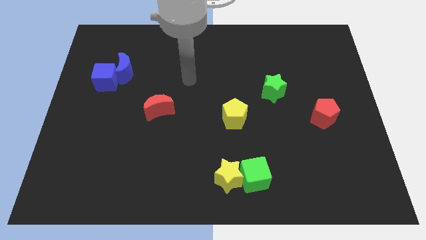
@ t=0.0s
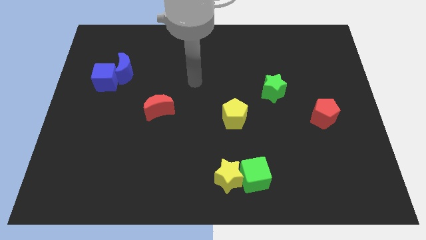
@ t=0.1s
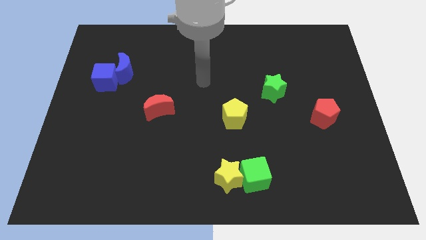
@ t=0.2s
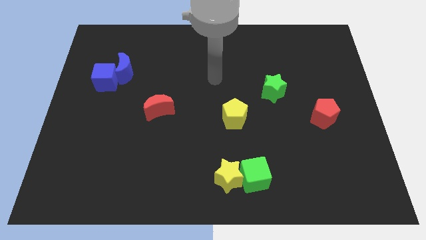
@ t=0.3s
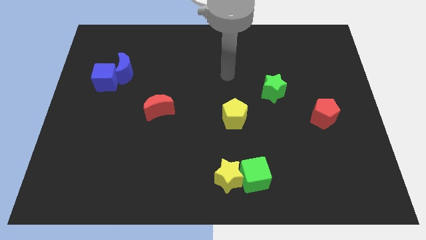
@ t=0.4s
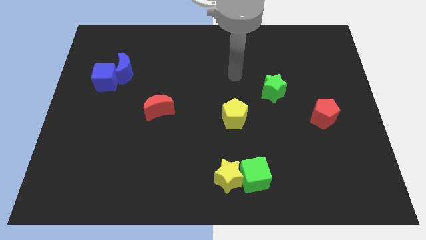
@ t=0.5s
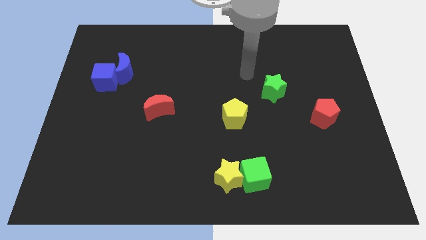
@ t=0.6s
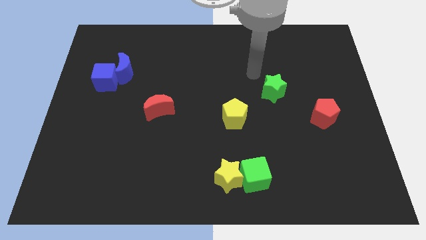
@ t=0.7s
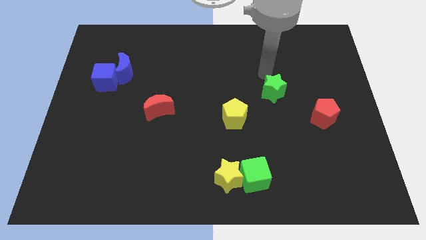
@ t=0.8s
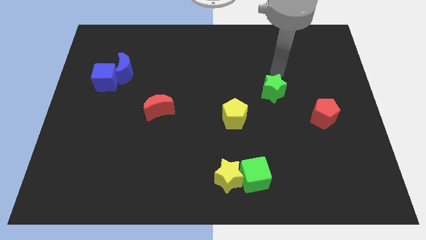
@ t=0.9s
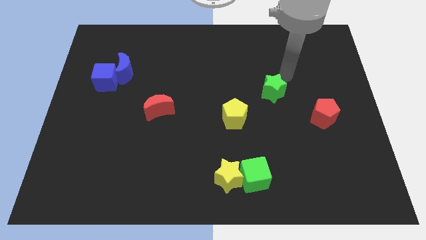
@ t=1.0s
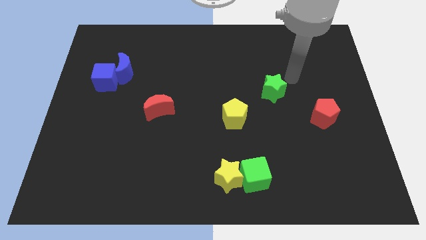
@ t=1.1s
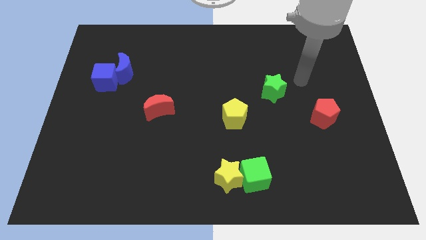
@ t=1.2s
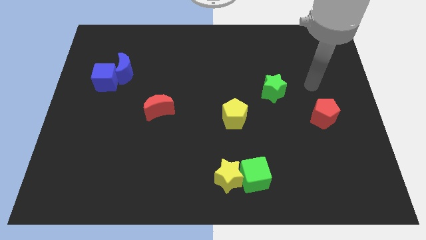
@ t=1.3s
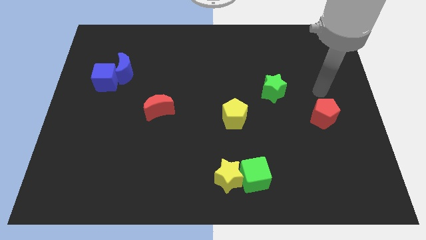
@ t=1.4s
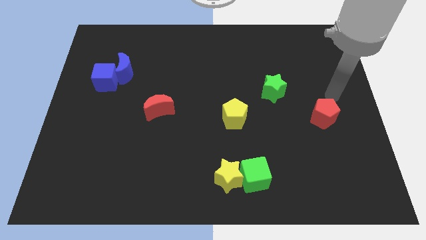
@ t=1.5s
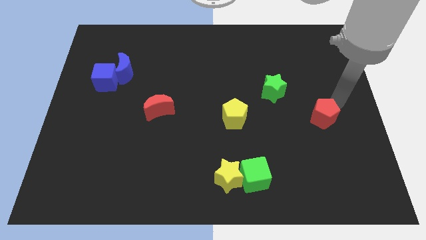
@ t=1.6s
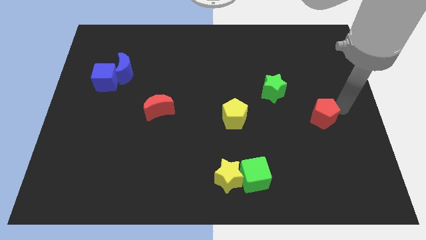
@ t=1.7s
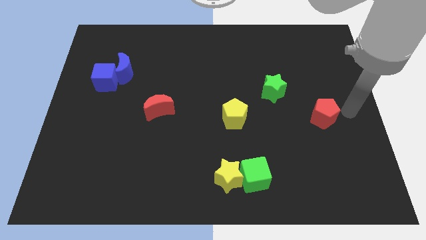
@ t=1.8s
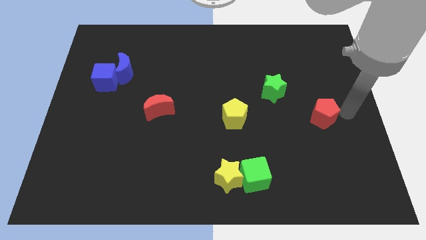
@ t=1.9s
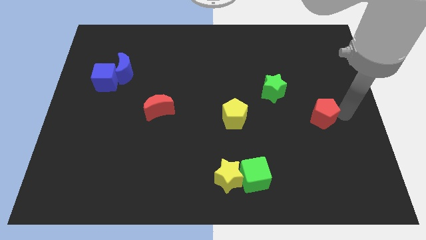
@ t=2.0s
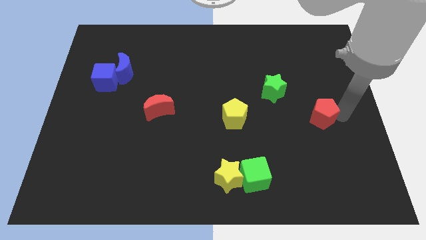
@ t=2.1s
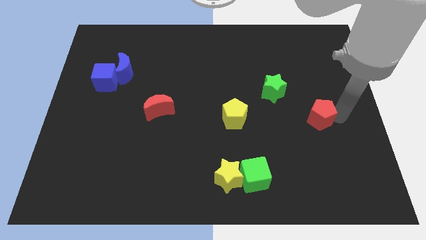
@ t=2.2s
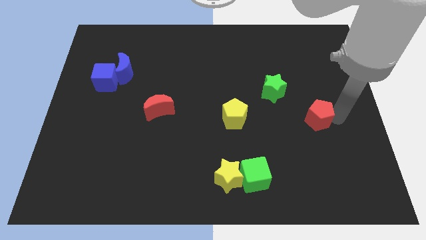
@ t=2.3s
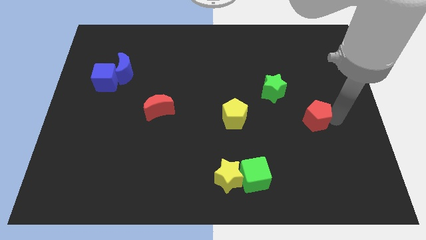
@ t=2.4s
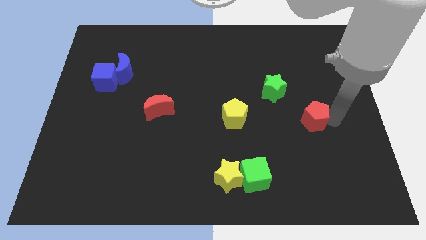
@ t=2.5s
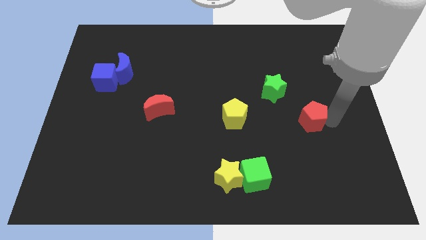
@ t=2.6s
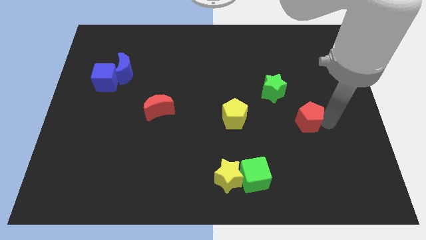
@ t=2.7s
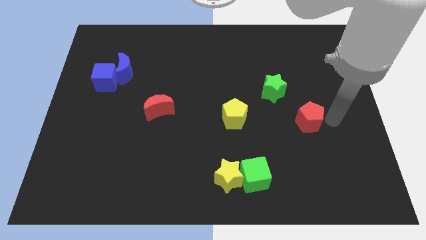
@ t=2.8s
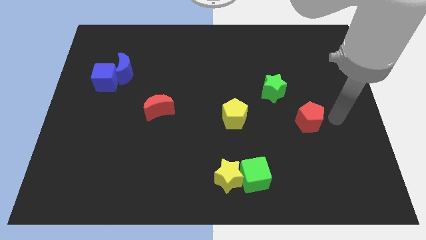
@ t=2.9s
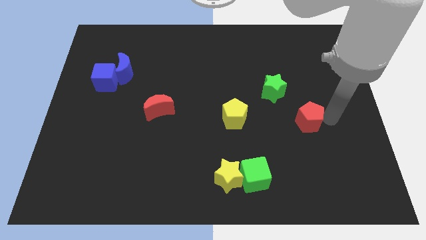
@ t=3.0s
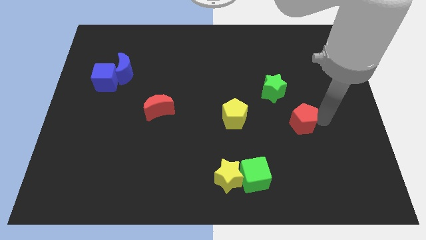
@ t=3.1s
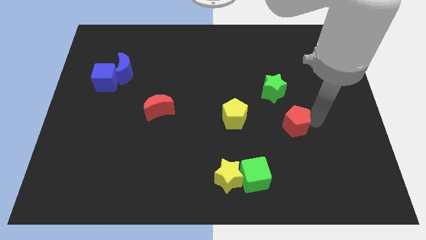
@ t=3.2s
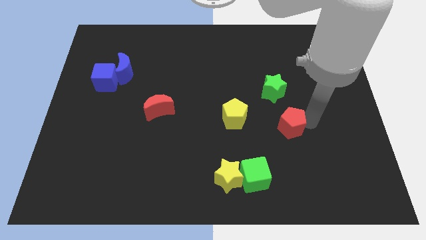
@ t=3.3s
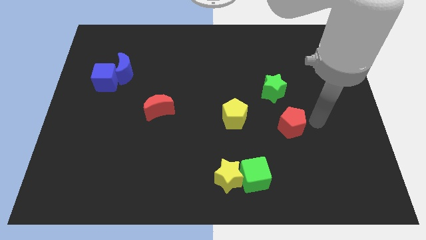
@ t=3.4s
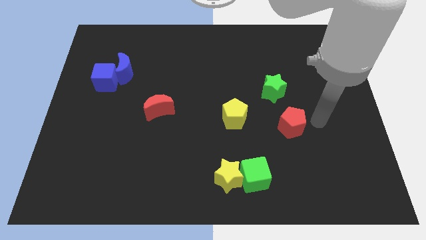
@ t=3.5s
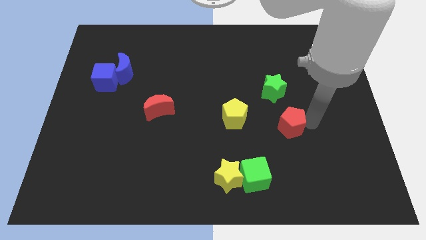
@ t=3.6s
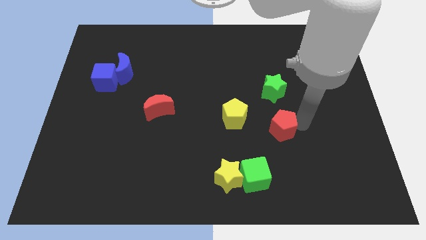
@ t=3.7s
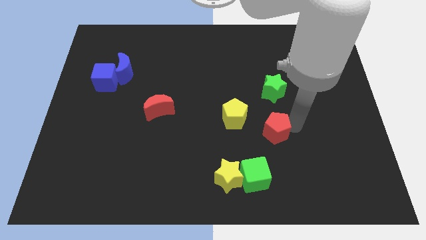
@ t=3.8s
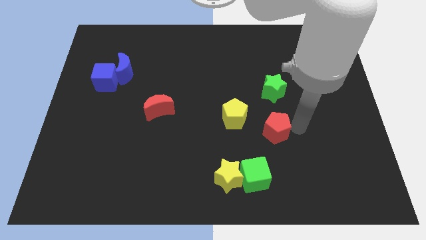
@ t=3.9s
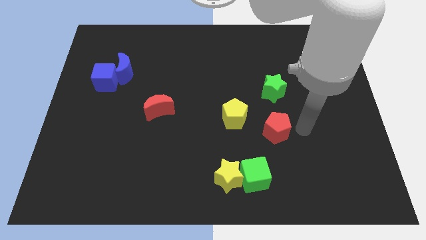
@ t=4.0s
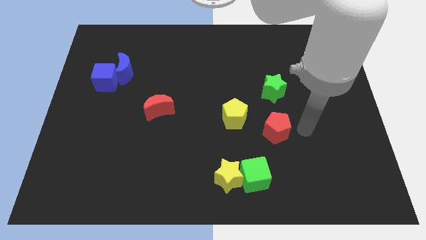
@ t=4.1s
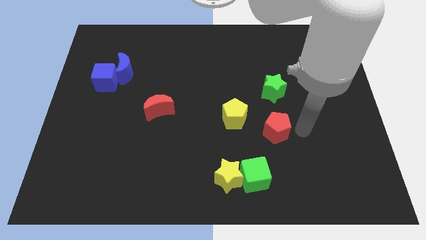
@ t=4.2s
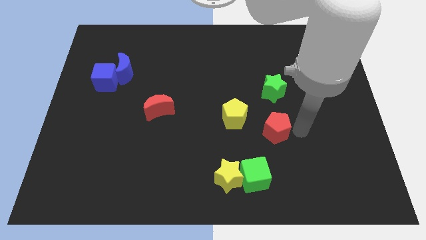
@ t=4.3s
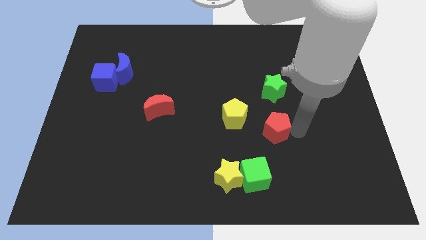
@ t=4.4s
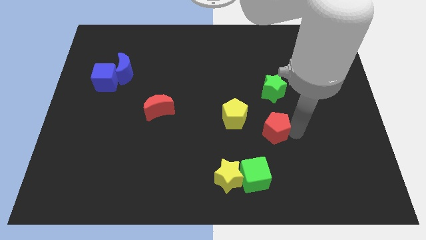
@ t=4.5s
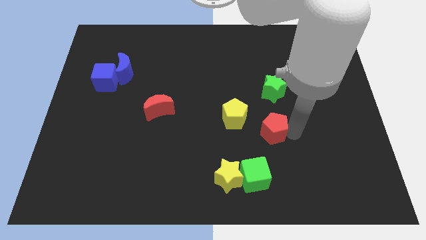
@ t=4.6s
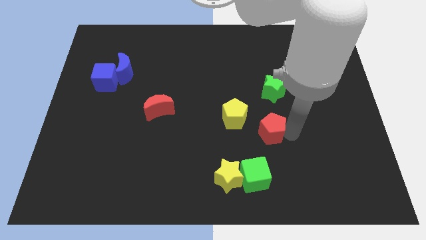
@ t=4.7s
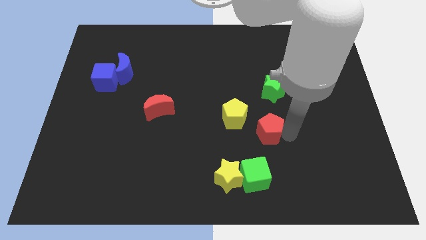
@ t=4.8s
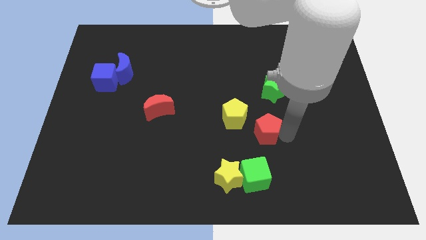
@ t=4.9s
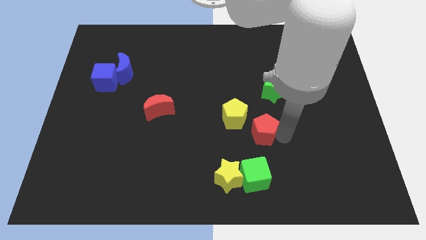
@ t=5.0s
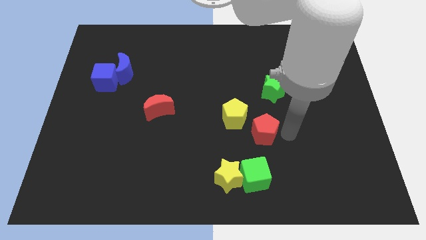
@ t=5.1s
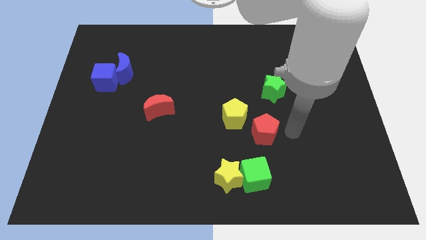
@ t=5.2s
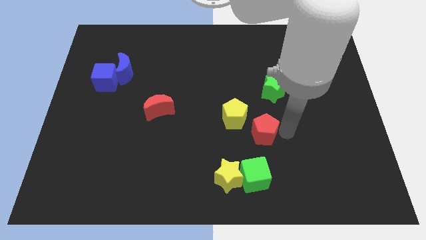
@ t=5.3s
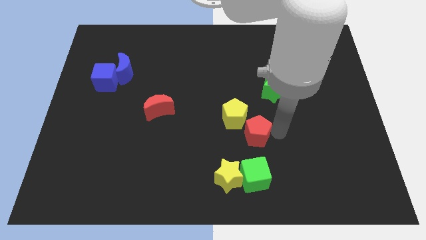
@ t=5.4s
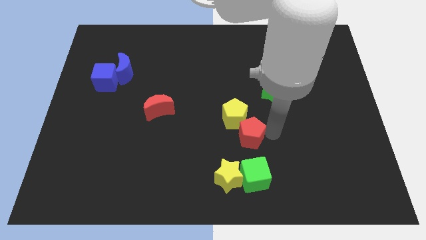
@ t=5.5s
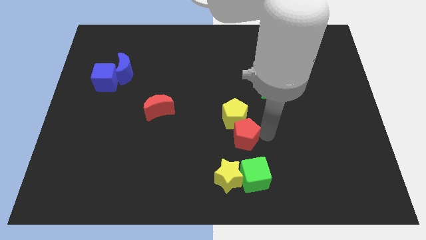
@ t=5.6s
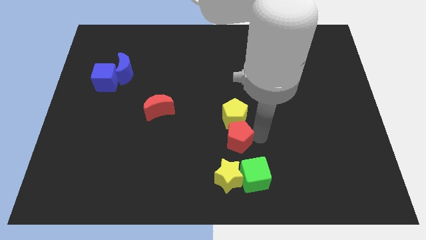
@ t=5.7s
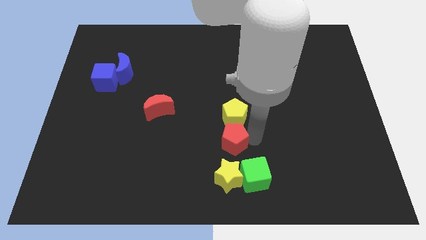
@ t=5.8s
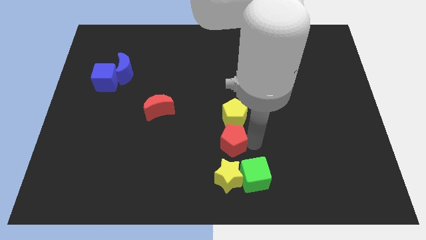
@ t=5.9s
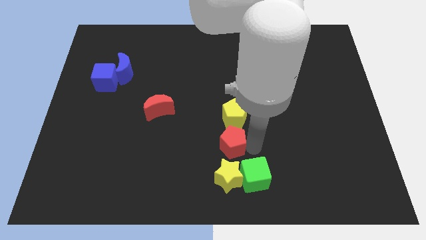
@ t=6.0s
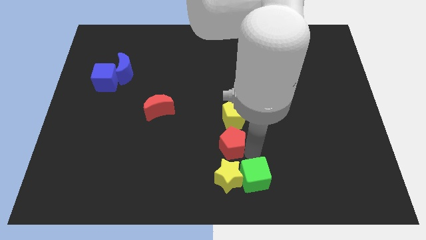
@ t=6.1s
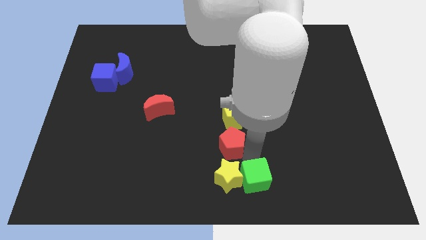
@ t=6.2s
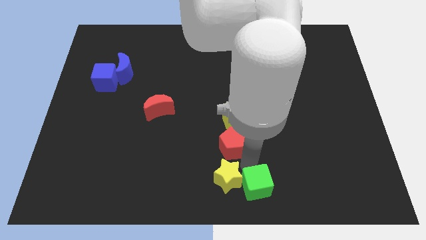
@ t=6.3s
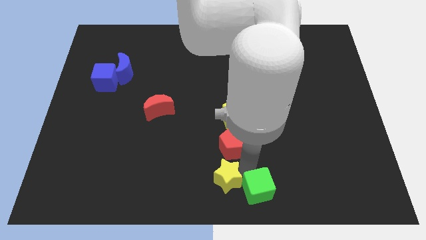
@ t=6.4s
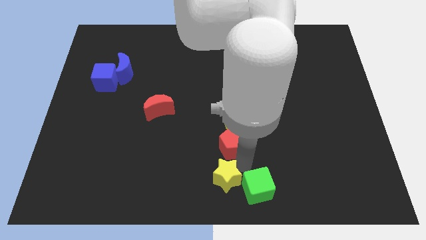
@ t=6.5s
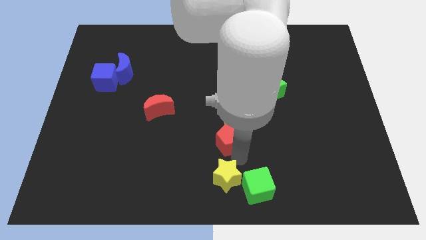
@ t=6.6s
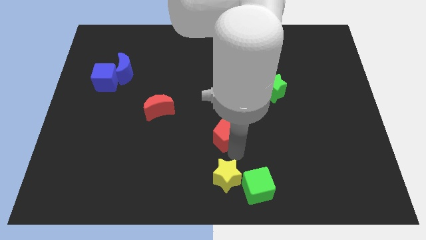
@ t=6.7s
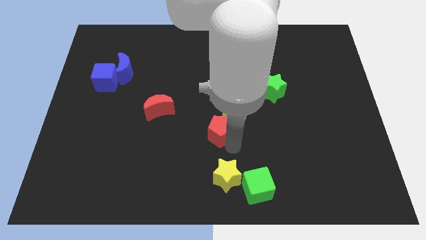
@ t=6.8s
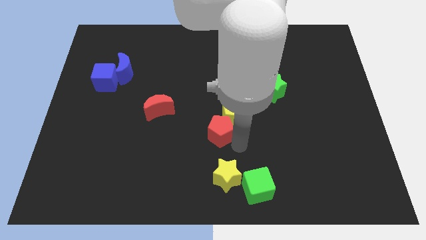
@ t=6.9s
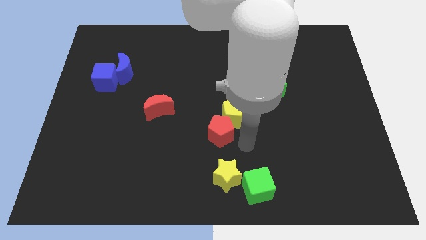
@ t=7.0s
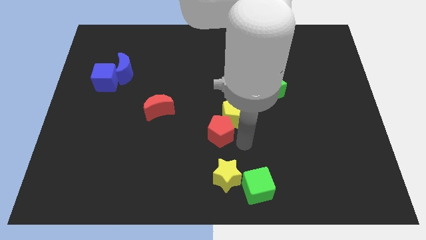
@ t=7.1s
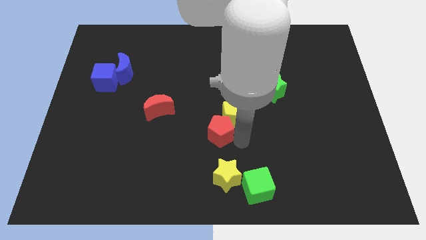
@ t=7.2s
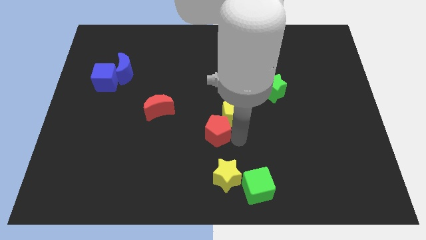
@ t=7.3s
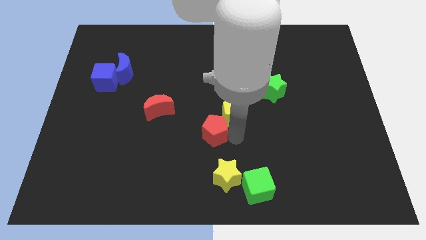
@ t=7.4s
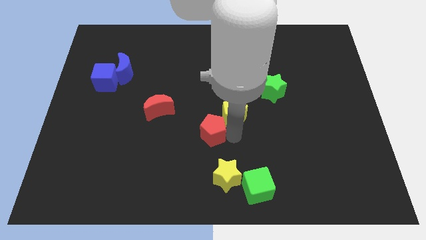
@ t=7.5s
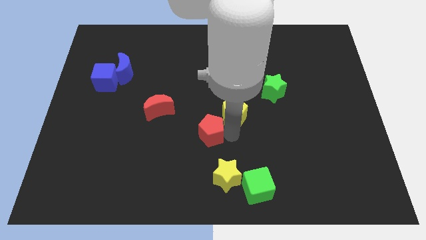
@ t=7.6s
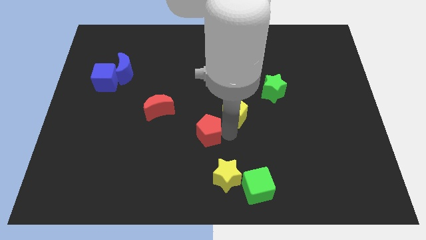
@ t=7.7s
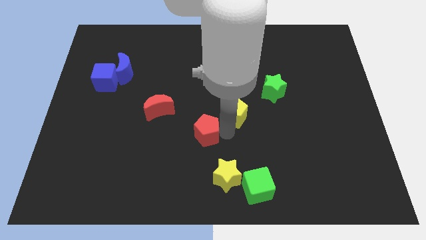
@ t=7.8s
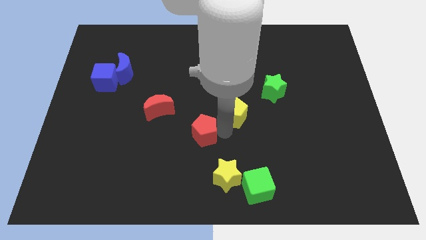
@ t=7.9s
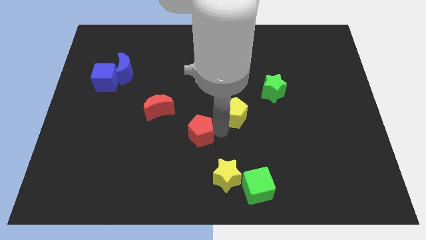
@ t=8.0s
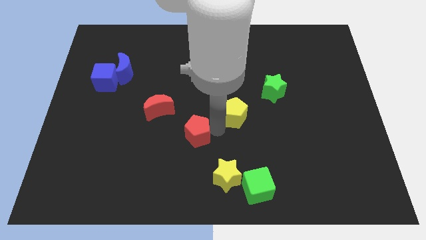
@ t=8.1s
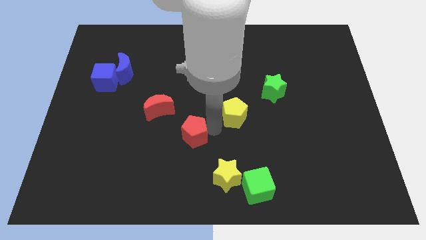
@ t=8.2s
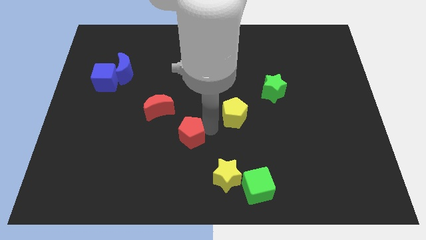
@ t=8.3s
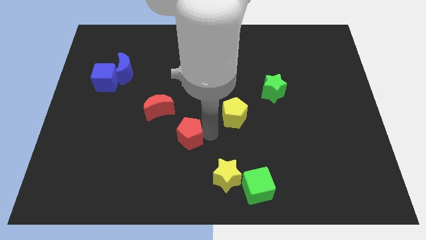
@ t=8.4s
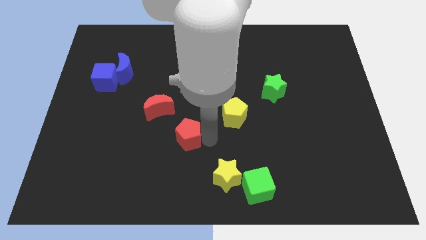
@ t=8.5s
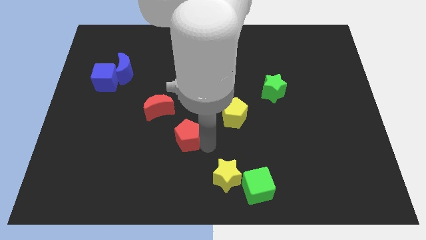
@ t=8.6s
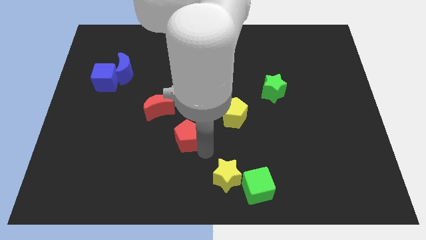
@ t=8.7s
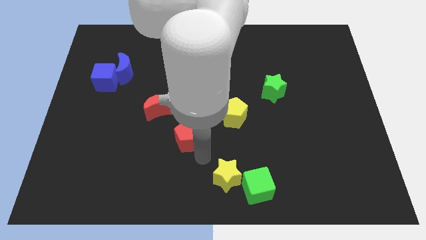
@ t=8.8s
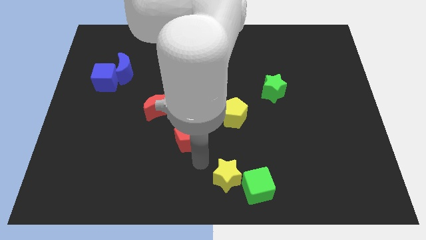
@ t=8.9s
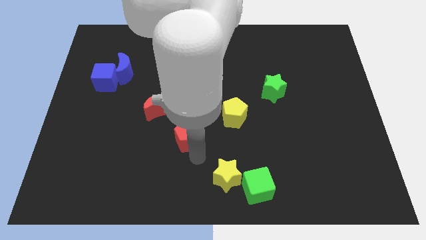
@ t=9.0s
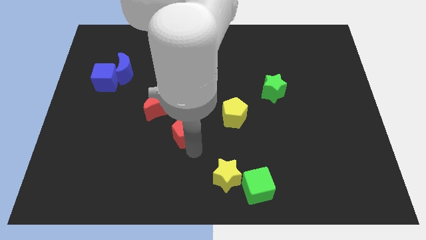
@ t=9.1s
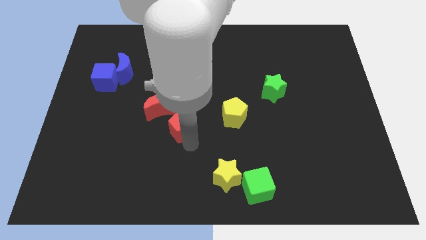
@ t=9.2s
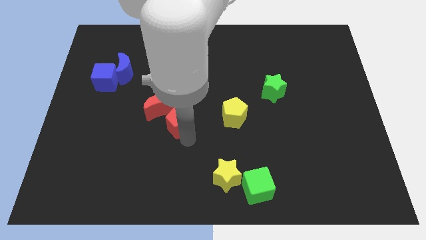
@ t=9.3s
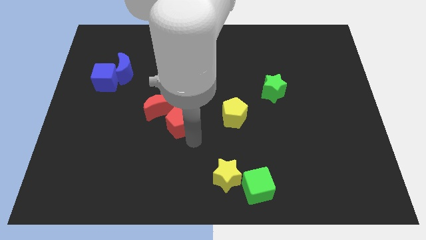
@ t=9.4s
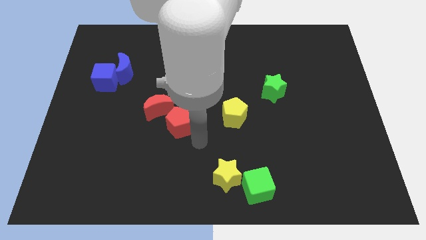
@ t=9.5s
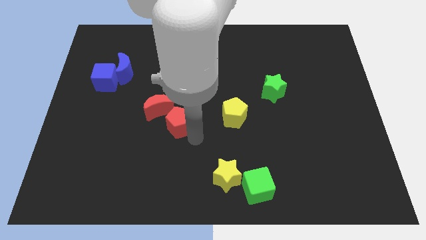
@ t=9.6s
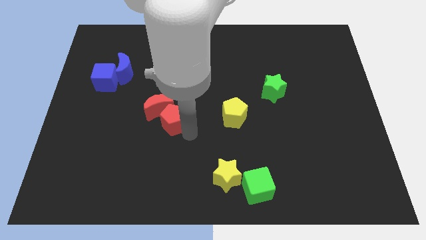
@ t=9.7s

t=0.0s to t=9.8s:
put the red pentagon towards the red moon
